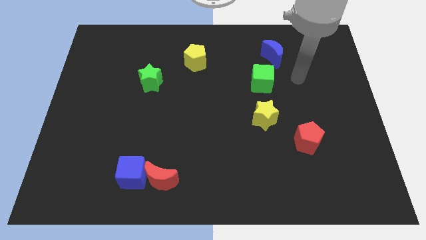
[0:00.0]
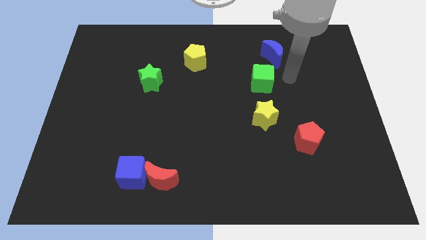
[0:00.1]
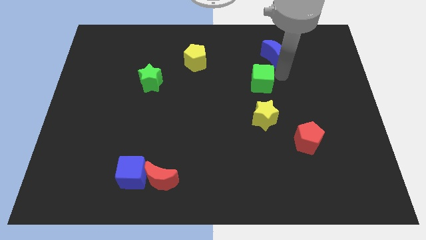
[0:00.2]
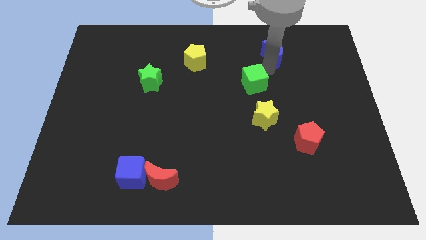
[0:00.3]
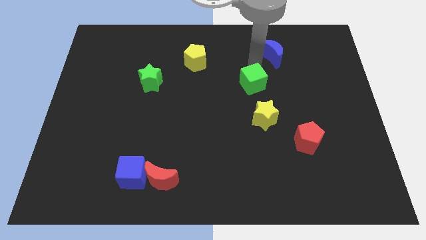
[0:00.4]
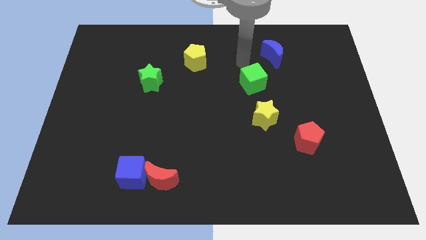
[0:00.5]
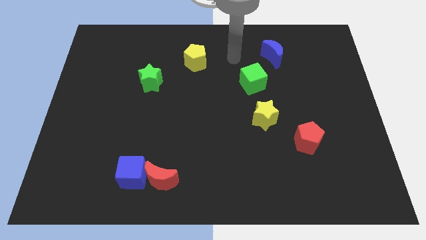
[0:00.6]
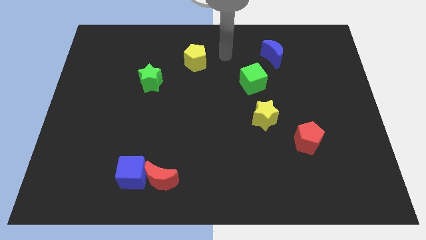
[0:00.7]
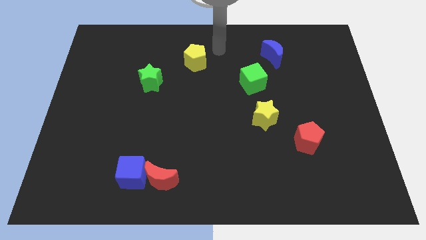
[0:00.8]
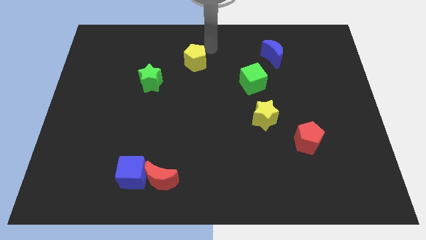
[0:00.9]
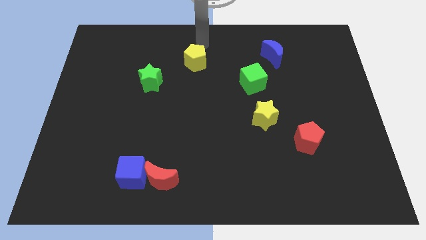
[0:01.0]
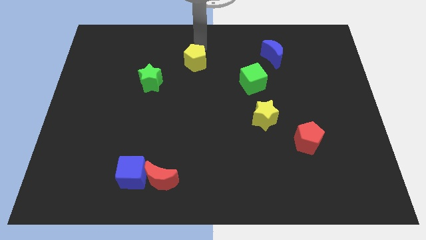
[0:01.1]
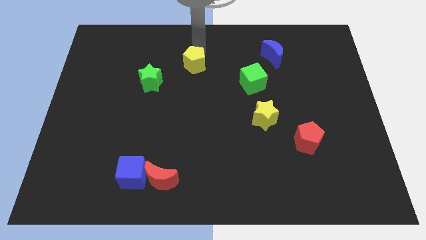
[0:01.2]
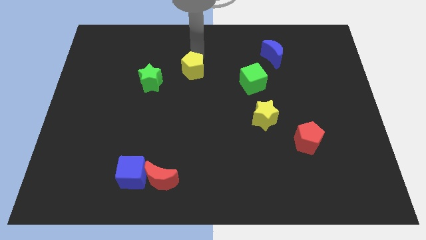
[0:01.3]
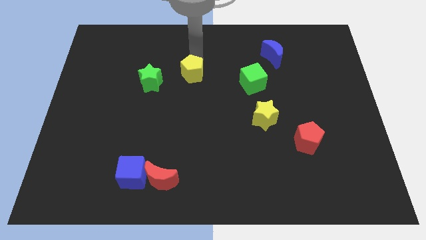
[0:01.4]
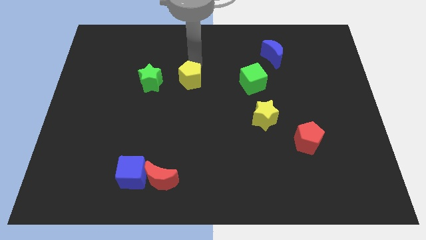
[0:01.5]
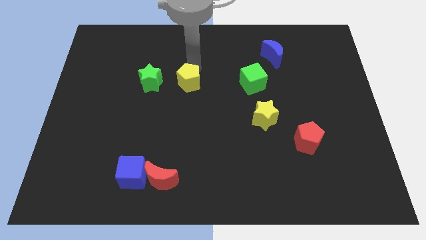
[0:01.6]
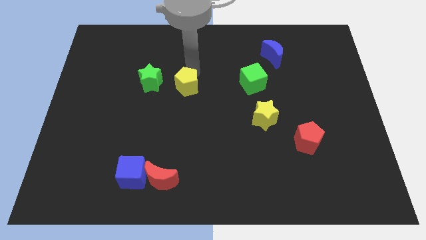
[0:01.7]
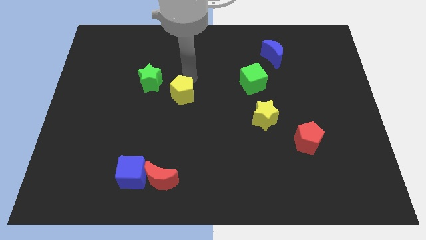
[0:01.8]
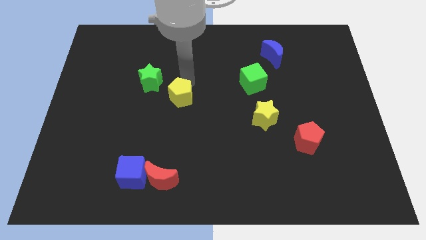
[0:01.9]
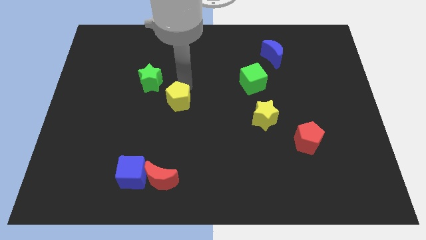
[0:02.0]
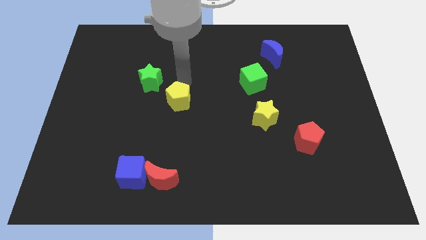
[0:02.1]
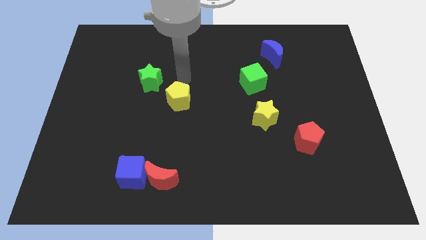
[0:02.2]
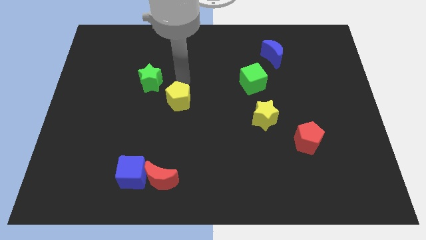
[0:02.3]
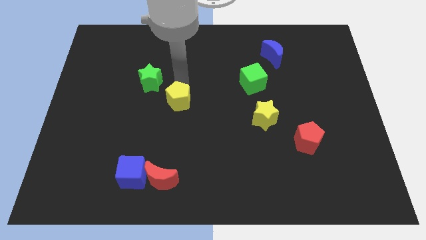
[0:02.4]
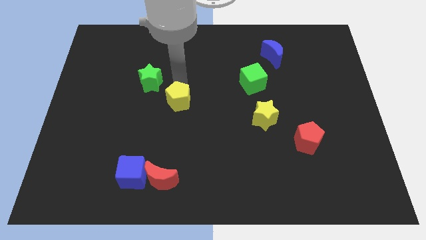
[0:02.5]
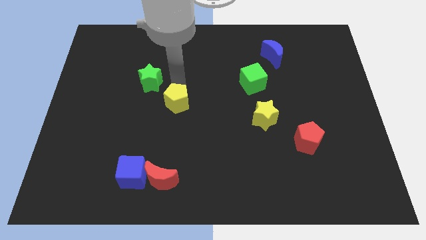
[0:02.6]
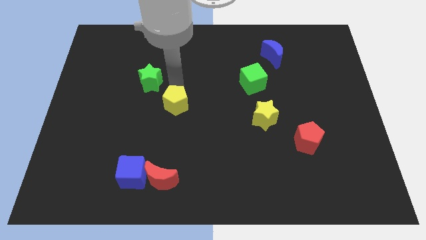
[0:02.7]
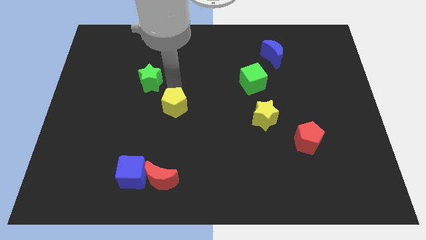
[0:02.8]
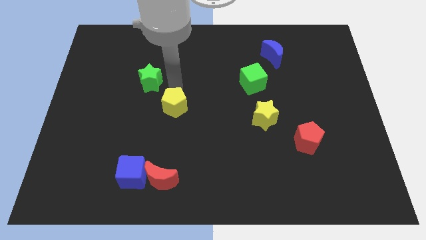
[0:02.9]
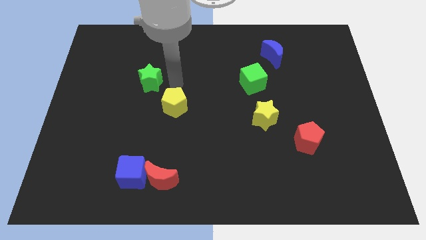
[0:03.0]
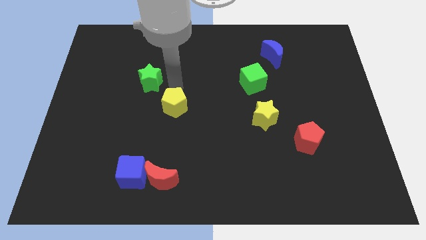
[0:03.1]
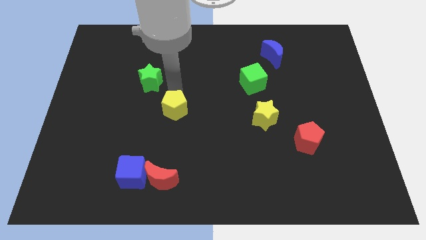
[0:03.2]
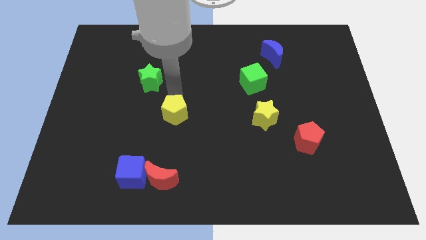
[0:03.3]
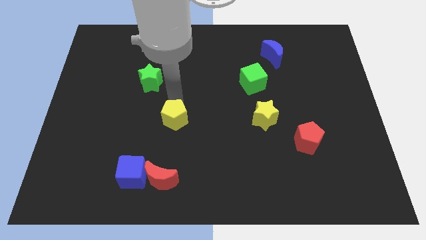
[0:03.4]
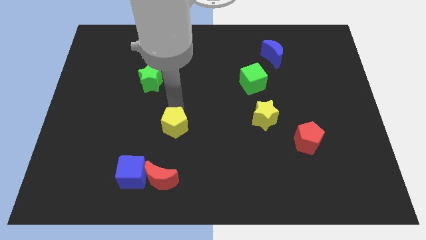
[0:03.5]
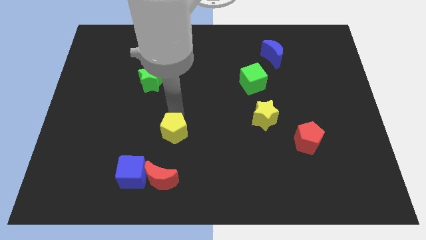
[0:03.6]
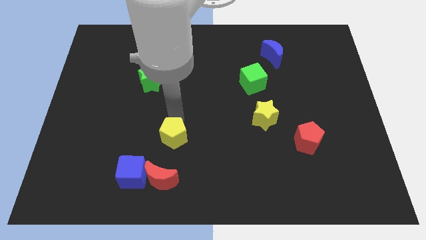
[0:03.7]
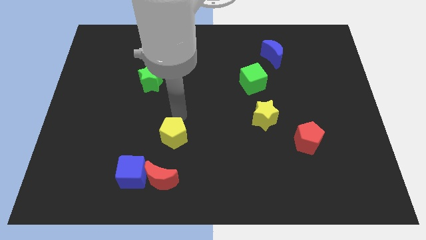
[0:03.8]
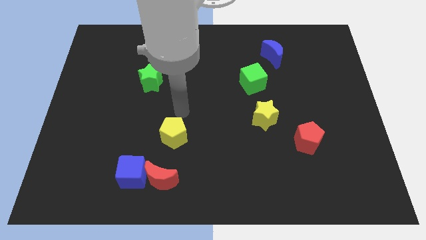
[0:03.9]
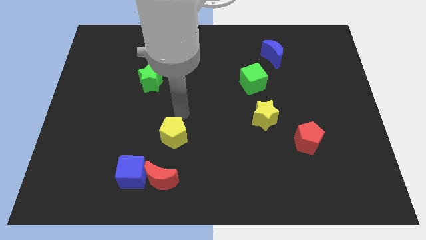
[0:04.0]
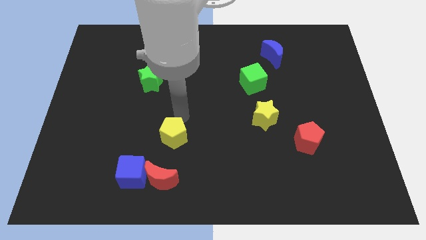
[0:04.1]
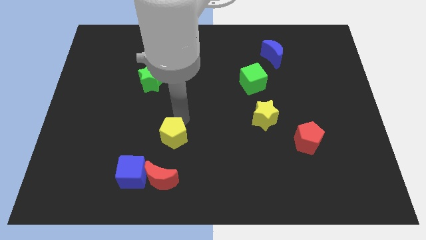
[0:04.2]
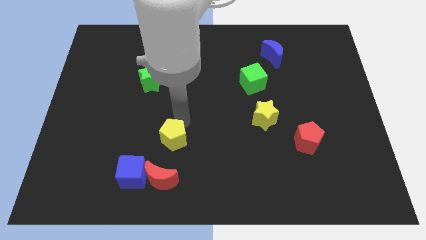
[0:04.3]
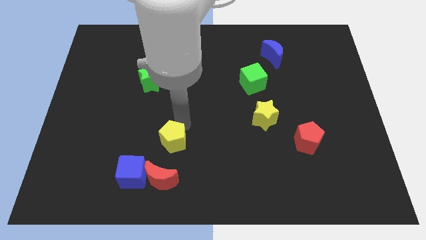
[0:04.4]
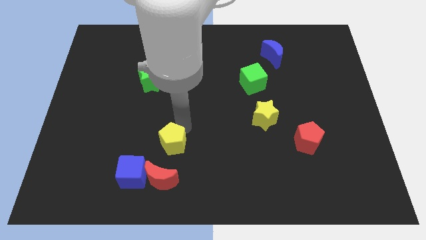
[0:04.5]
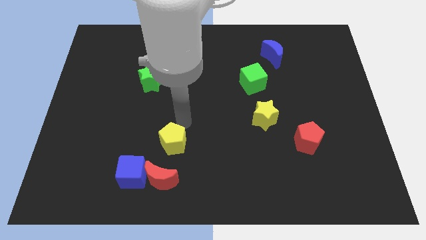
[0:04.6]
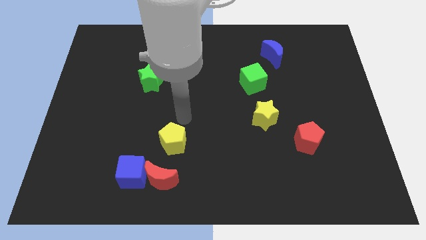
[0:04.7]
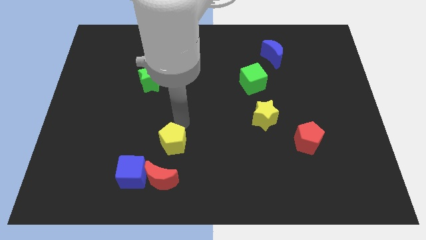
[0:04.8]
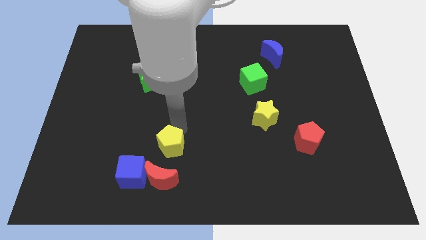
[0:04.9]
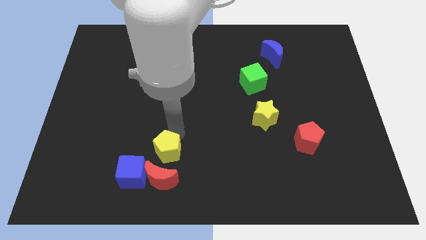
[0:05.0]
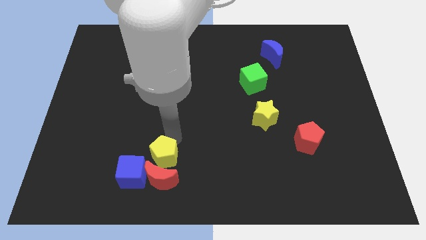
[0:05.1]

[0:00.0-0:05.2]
slide the yellow pentagon next to the red moon

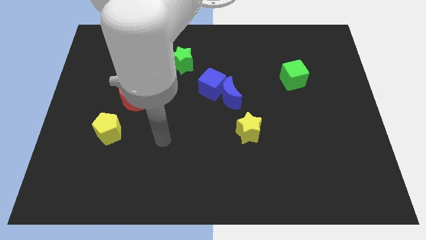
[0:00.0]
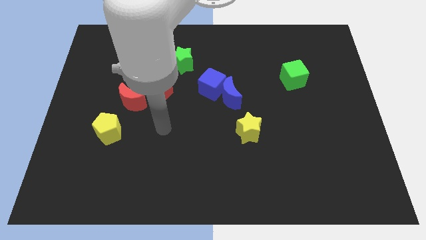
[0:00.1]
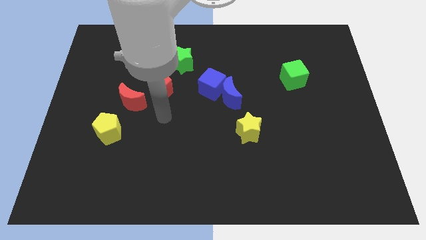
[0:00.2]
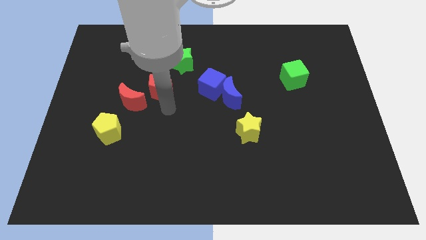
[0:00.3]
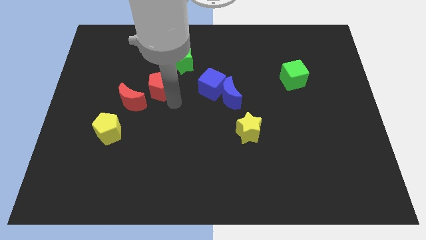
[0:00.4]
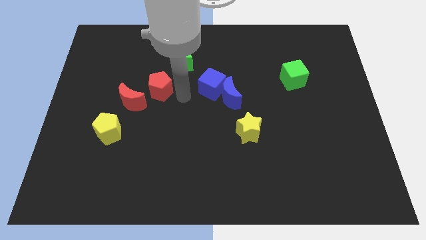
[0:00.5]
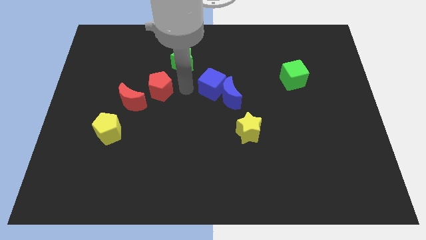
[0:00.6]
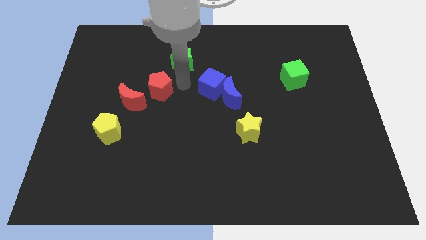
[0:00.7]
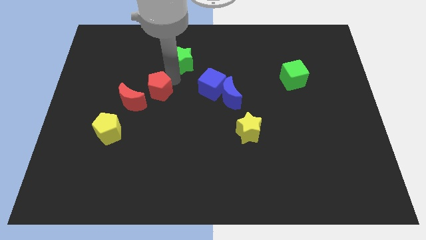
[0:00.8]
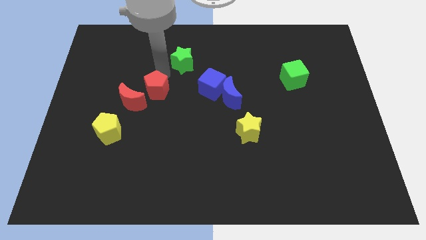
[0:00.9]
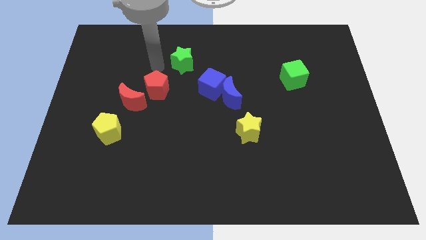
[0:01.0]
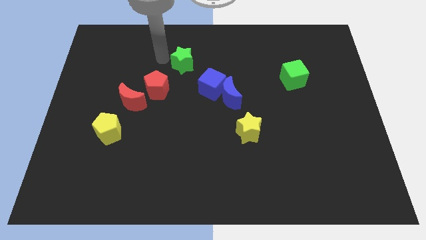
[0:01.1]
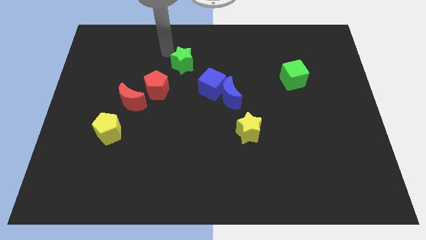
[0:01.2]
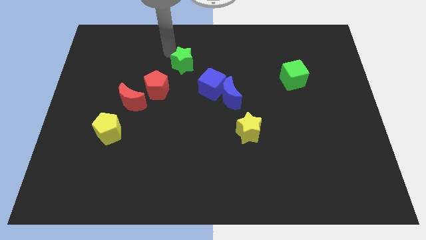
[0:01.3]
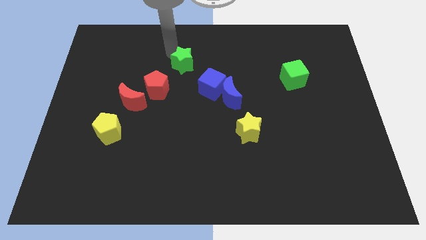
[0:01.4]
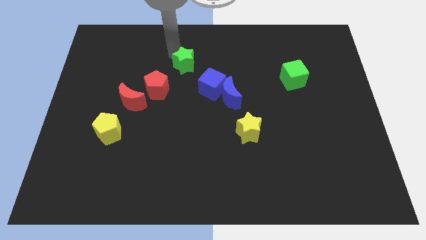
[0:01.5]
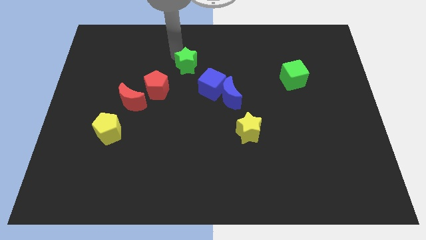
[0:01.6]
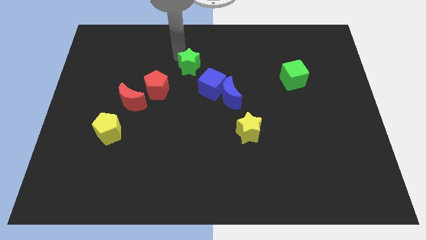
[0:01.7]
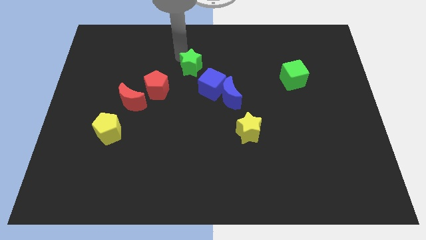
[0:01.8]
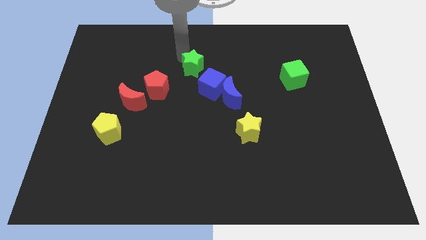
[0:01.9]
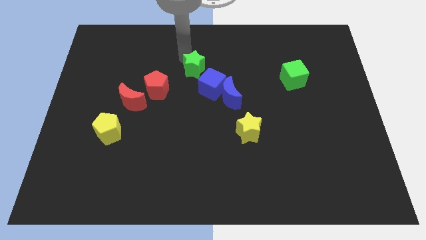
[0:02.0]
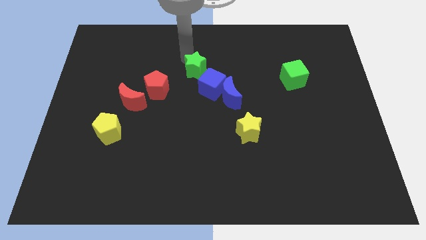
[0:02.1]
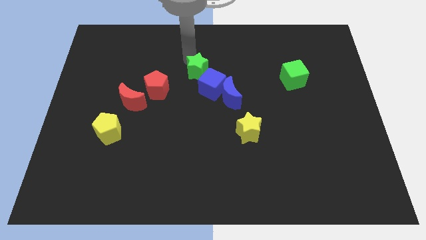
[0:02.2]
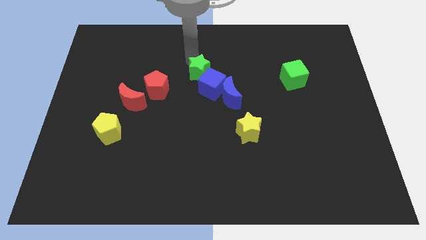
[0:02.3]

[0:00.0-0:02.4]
move the green star next to the blue cube

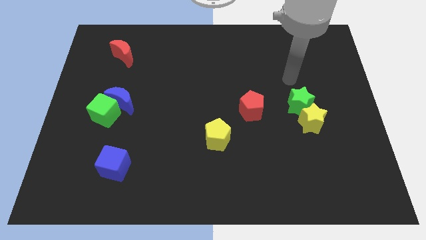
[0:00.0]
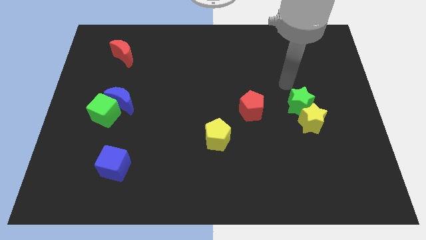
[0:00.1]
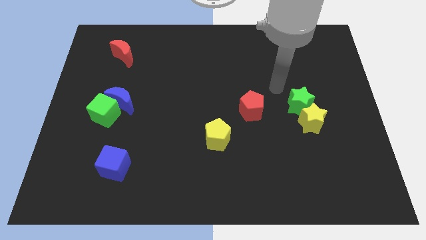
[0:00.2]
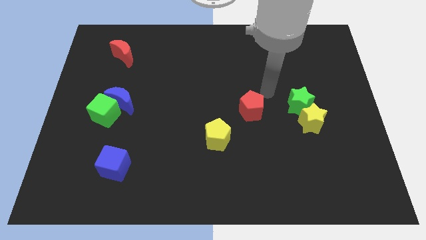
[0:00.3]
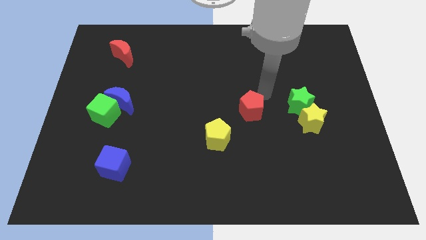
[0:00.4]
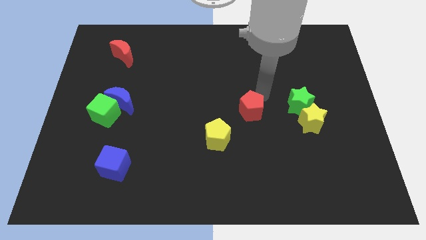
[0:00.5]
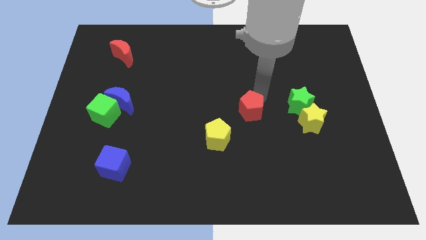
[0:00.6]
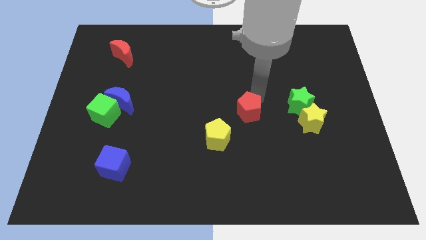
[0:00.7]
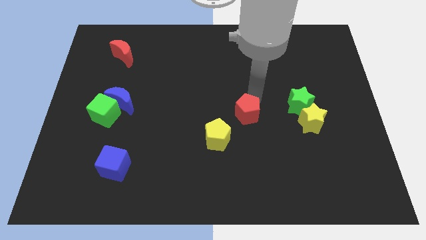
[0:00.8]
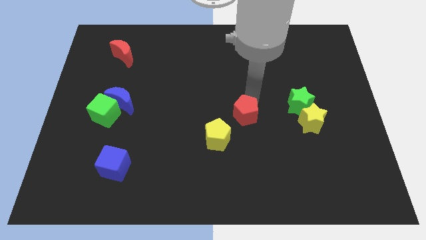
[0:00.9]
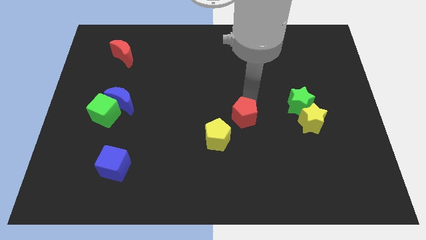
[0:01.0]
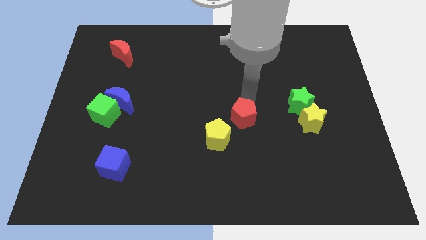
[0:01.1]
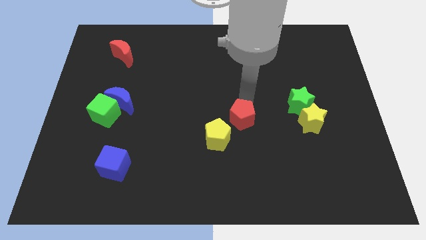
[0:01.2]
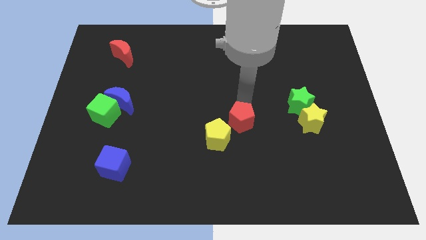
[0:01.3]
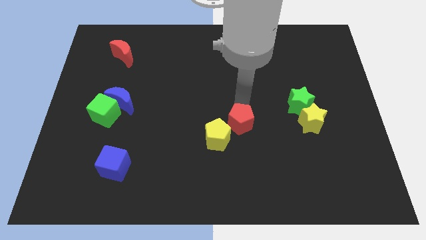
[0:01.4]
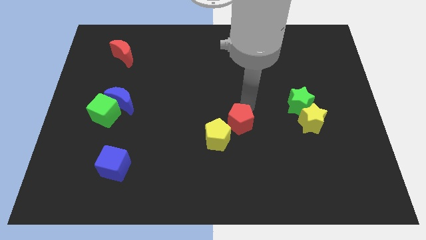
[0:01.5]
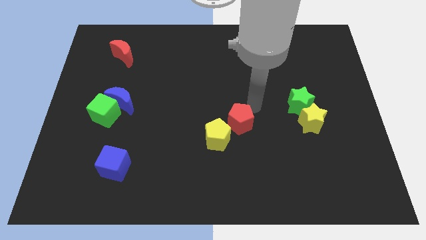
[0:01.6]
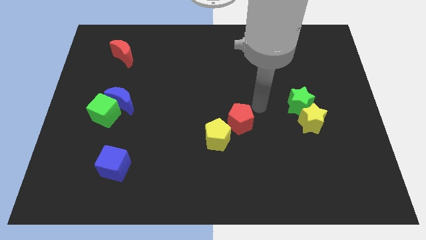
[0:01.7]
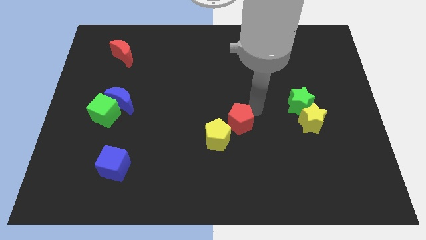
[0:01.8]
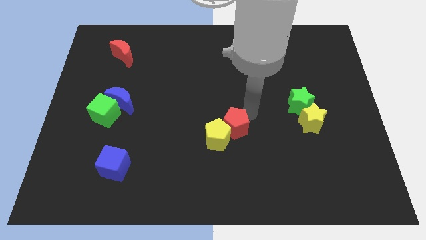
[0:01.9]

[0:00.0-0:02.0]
move the red pentagon close to the yellow pentagon
